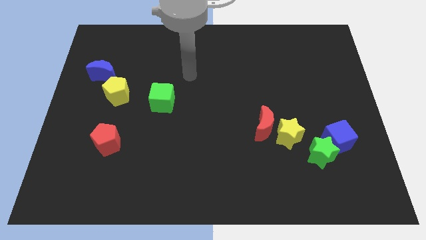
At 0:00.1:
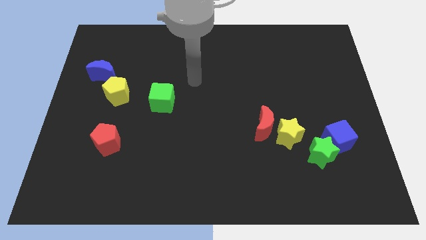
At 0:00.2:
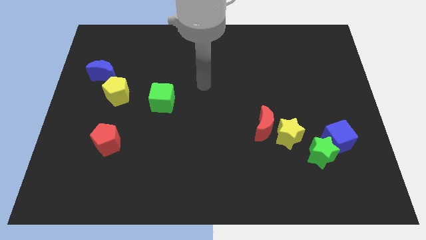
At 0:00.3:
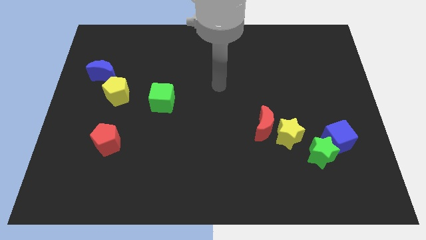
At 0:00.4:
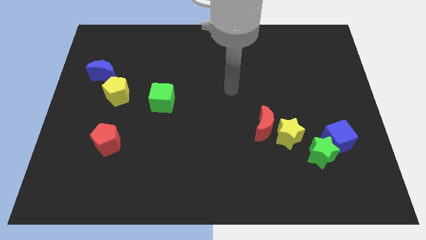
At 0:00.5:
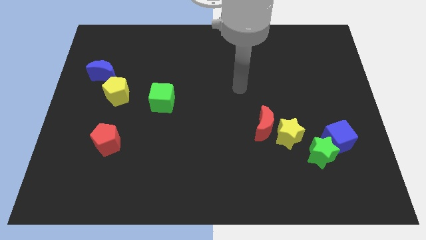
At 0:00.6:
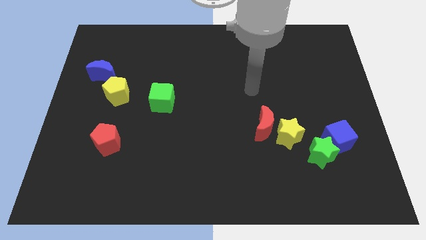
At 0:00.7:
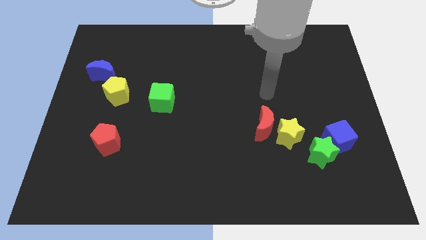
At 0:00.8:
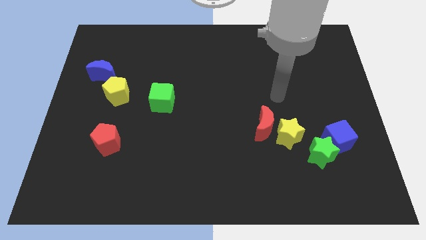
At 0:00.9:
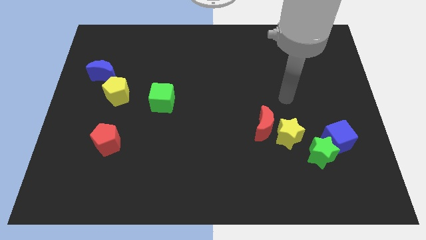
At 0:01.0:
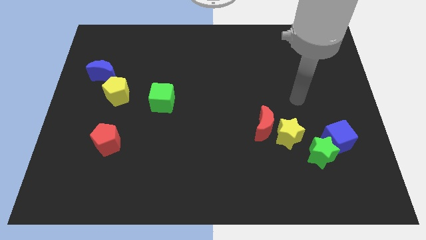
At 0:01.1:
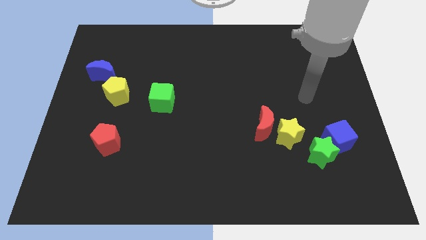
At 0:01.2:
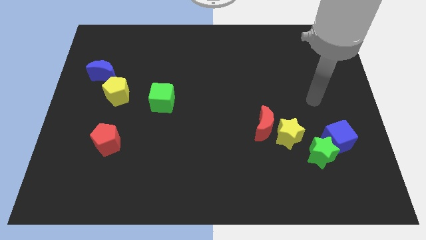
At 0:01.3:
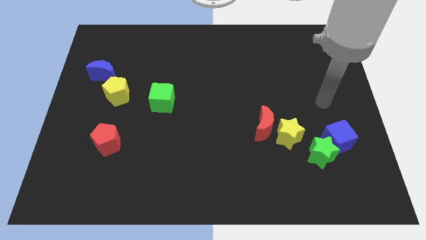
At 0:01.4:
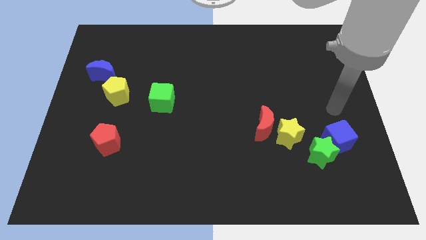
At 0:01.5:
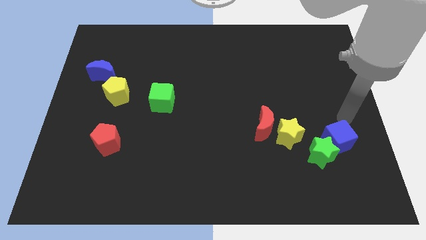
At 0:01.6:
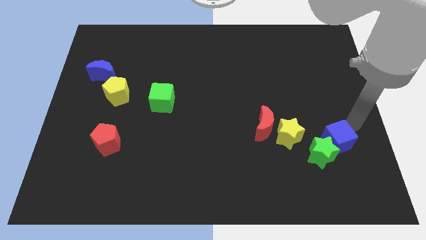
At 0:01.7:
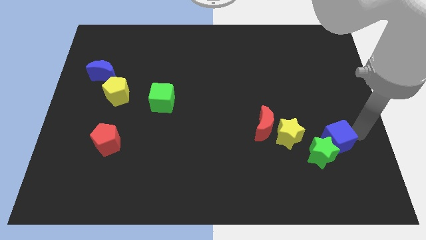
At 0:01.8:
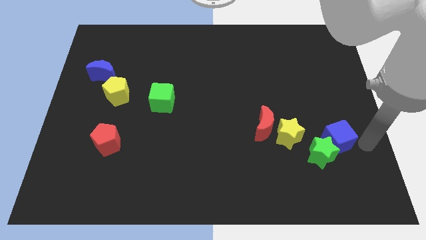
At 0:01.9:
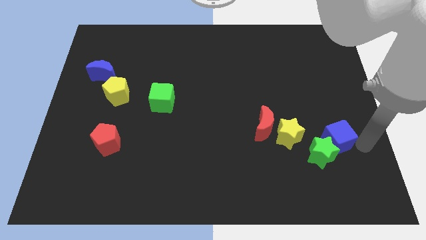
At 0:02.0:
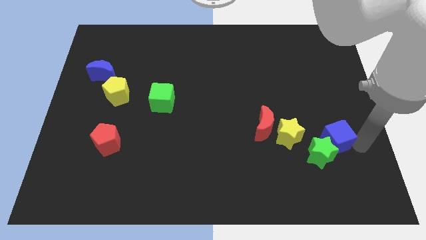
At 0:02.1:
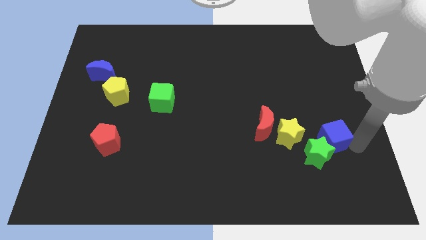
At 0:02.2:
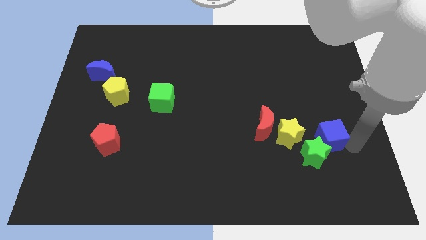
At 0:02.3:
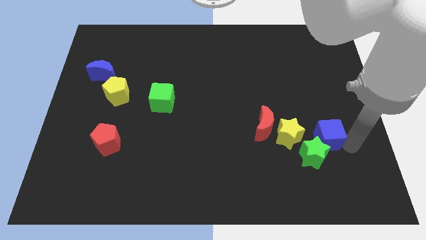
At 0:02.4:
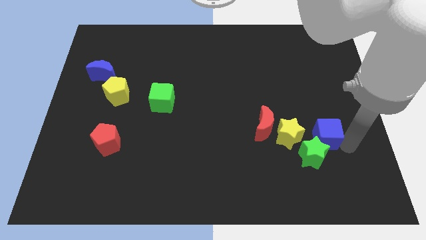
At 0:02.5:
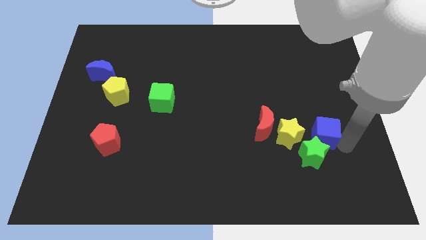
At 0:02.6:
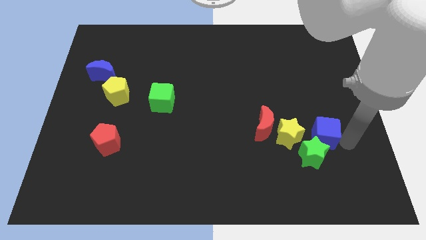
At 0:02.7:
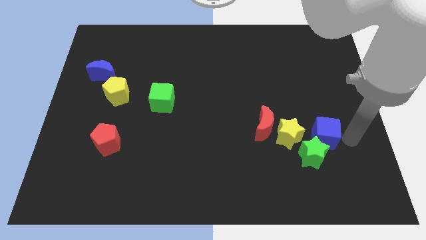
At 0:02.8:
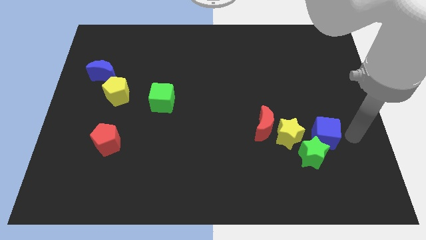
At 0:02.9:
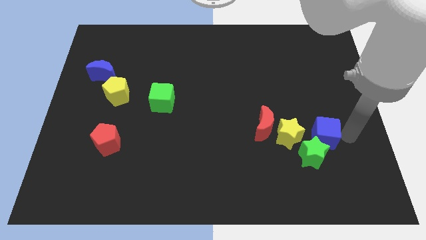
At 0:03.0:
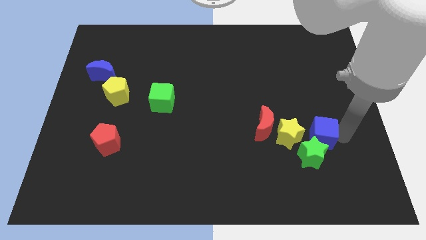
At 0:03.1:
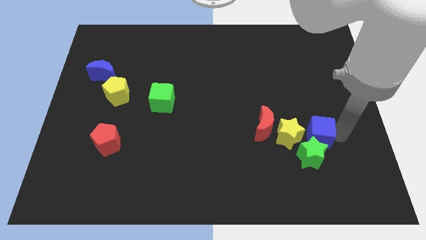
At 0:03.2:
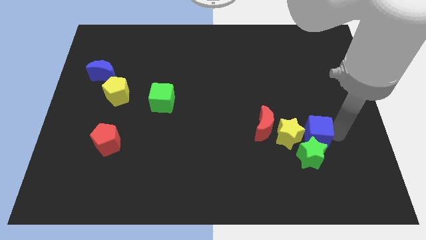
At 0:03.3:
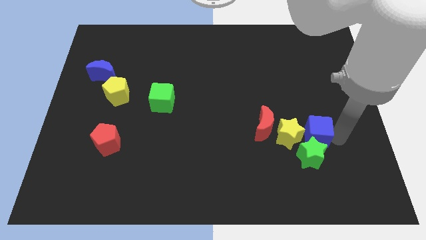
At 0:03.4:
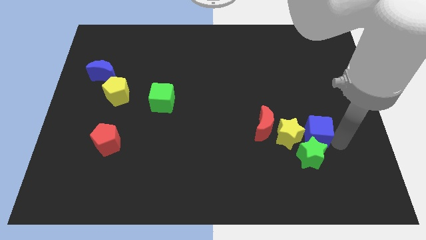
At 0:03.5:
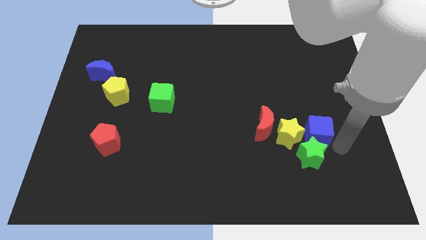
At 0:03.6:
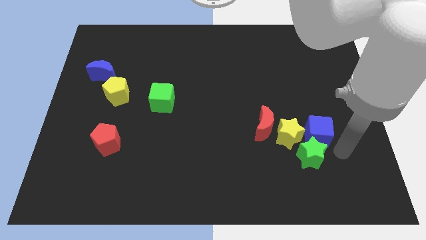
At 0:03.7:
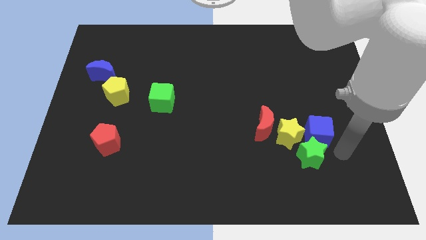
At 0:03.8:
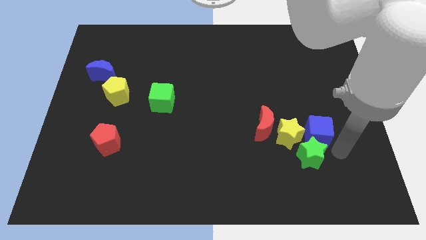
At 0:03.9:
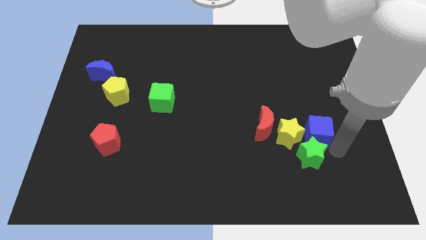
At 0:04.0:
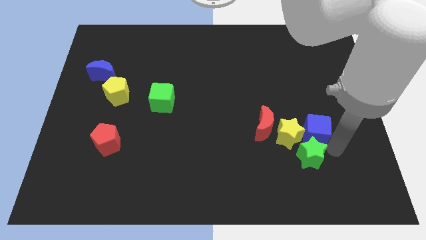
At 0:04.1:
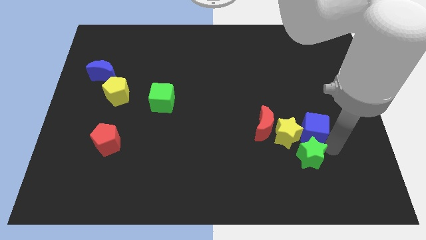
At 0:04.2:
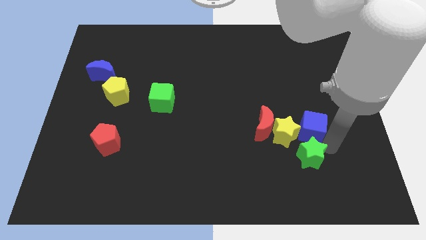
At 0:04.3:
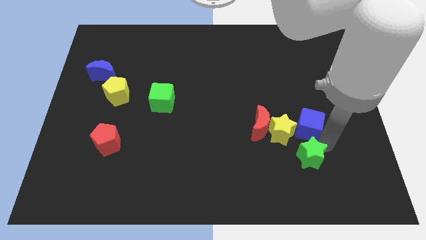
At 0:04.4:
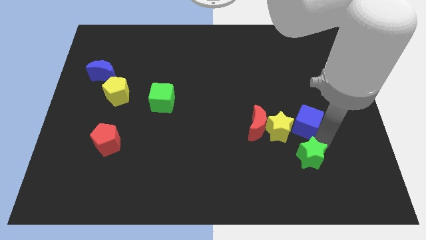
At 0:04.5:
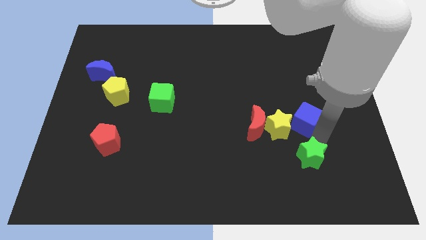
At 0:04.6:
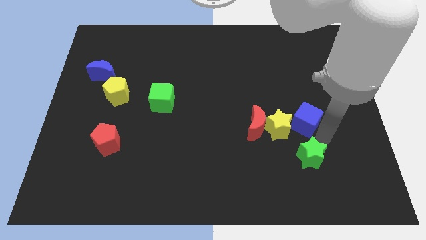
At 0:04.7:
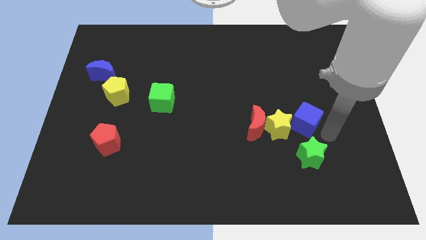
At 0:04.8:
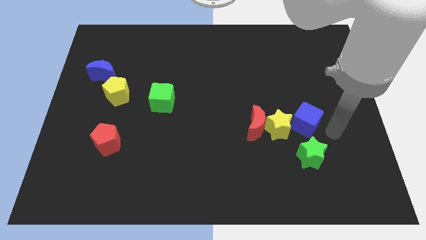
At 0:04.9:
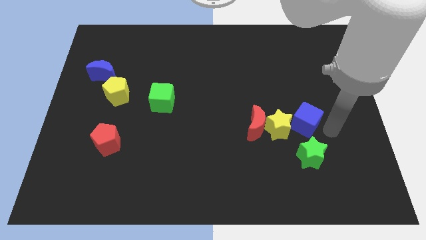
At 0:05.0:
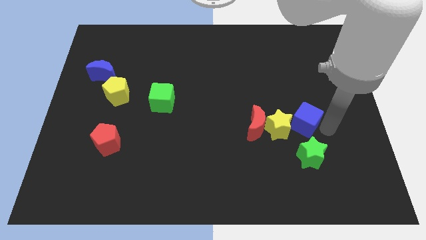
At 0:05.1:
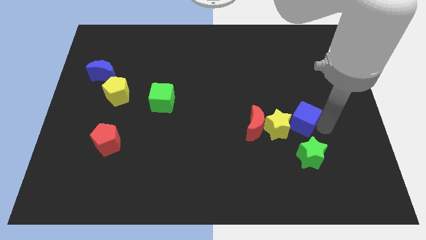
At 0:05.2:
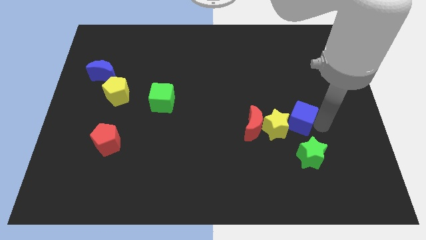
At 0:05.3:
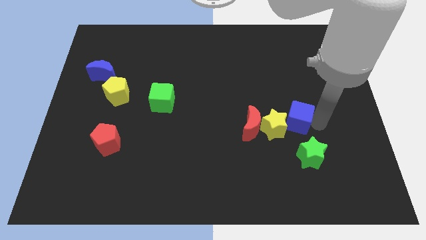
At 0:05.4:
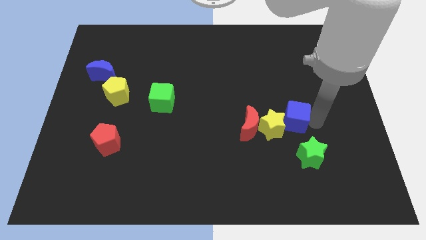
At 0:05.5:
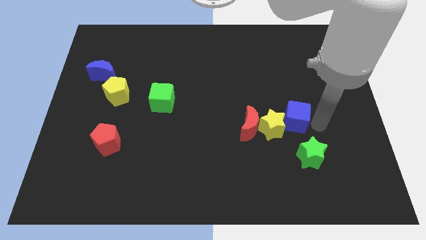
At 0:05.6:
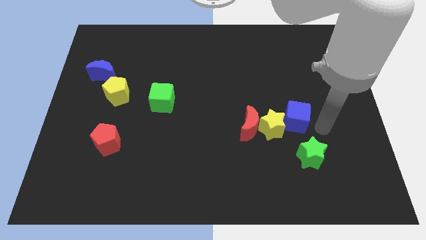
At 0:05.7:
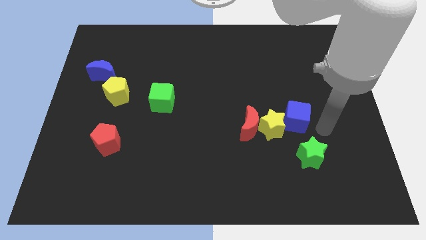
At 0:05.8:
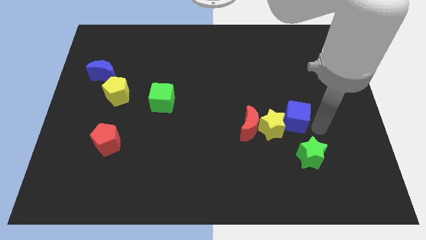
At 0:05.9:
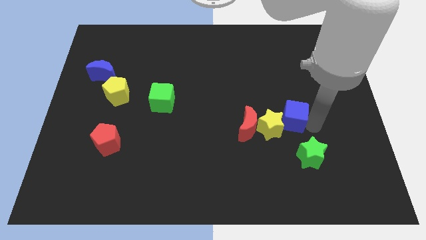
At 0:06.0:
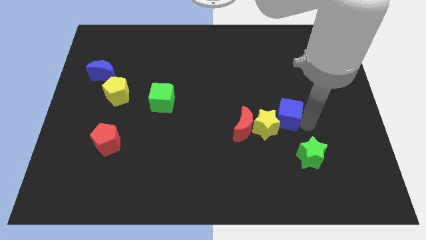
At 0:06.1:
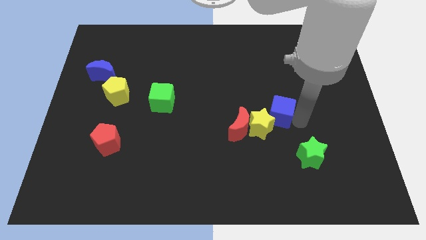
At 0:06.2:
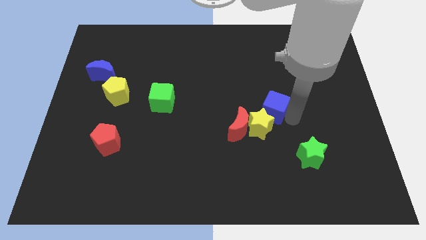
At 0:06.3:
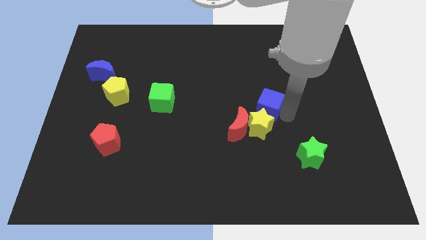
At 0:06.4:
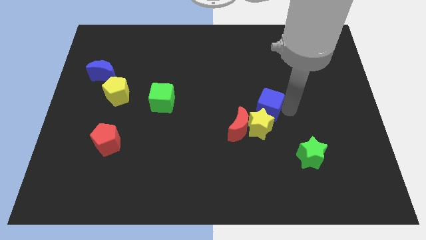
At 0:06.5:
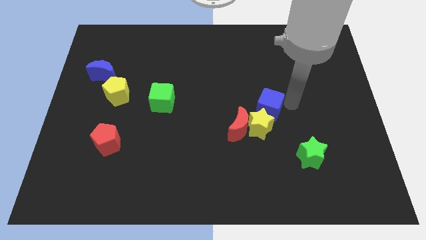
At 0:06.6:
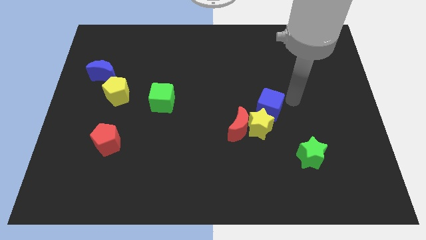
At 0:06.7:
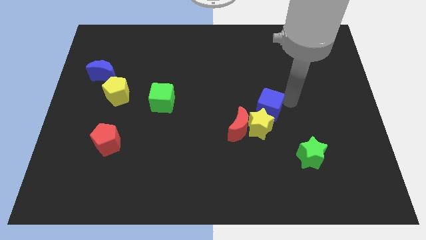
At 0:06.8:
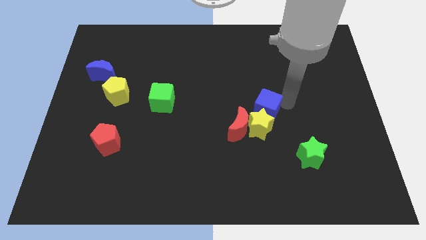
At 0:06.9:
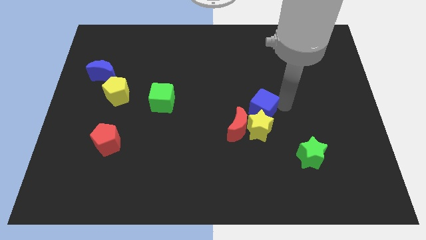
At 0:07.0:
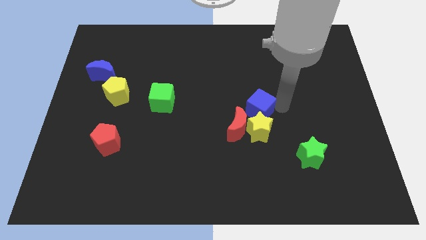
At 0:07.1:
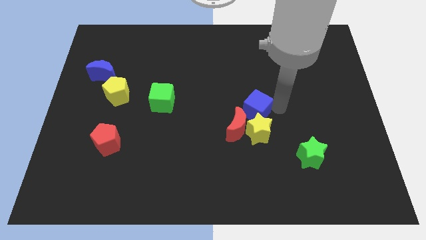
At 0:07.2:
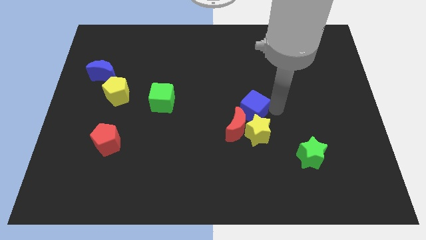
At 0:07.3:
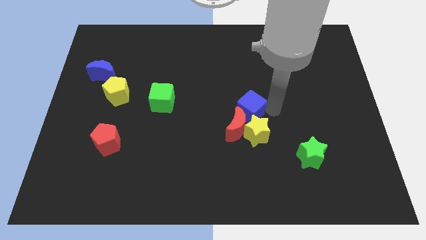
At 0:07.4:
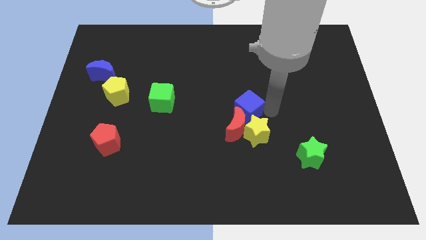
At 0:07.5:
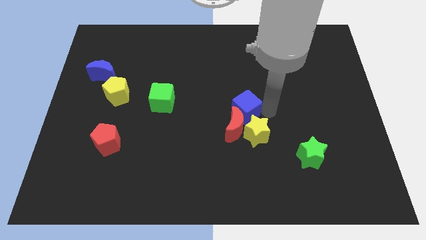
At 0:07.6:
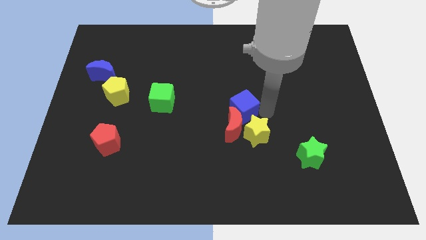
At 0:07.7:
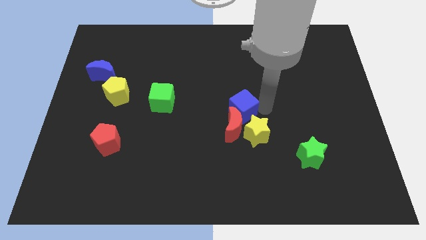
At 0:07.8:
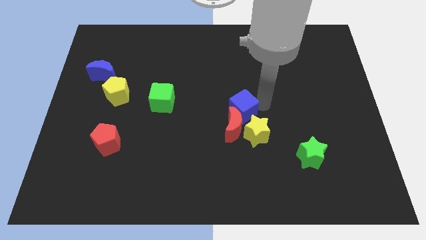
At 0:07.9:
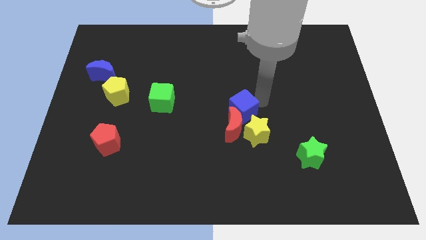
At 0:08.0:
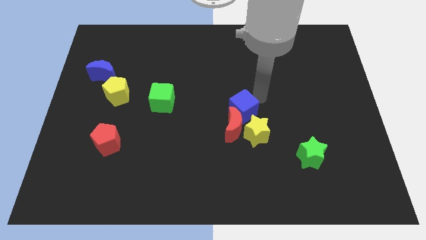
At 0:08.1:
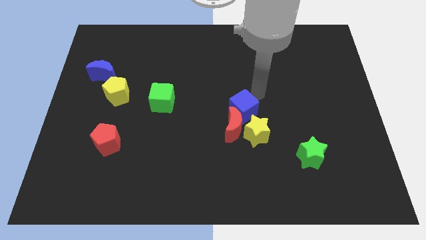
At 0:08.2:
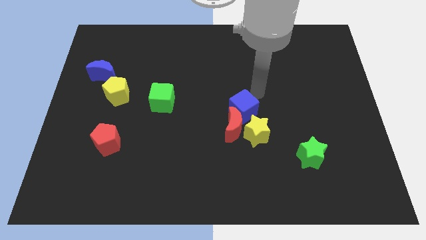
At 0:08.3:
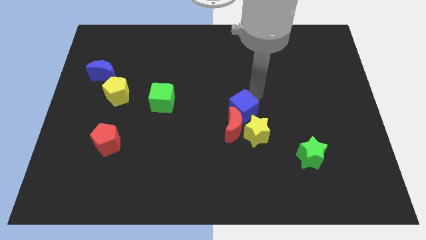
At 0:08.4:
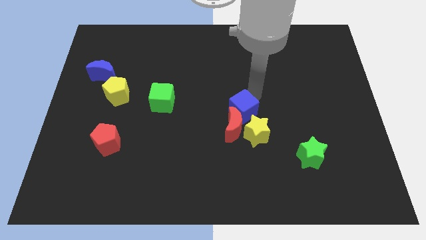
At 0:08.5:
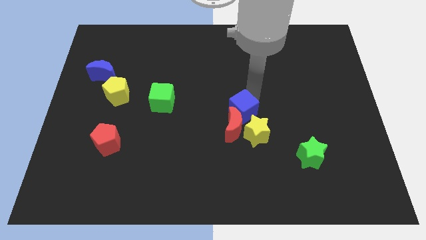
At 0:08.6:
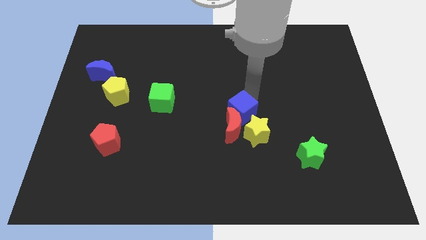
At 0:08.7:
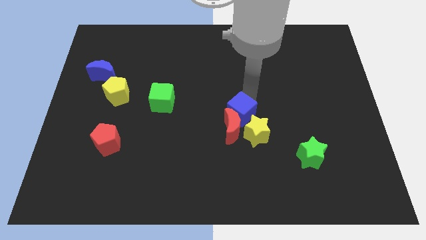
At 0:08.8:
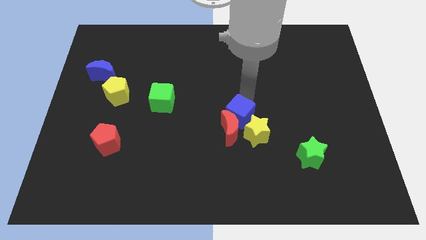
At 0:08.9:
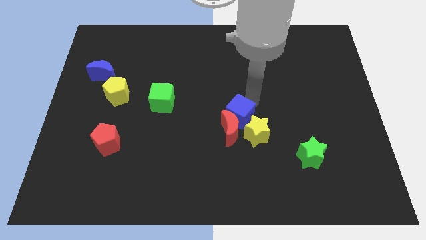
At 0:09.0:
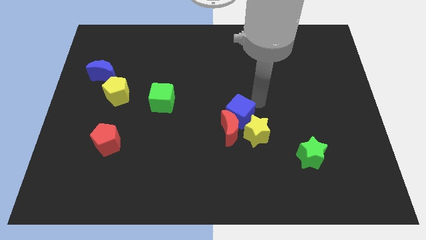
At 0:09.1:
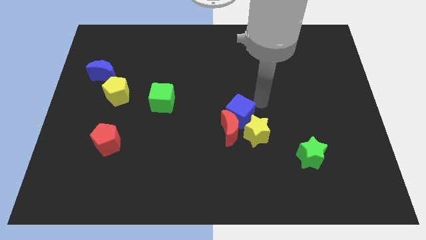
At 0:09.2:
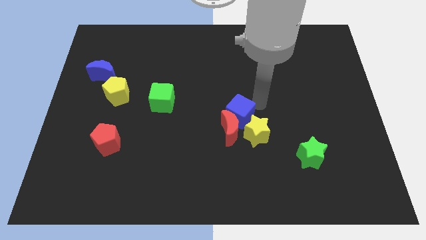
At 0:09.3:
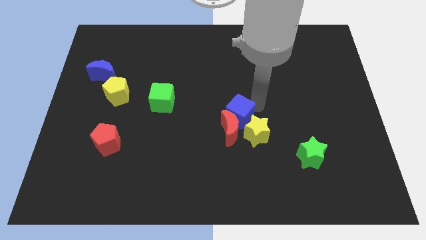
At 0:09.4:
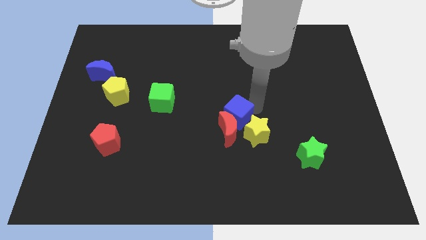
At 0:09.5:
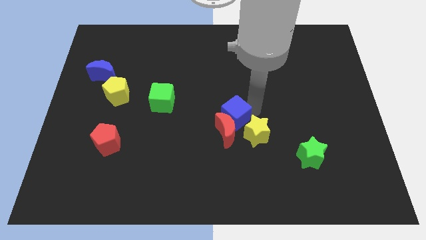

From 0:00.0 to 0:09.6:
push the blue cube left
